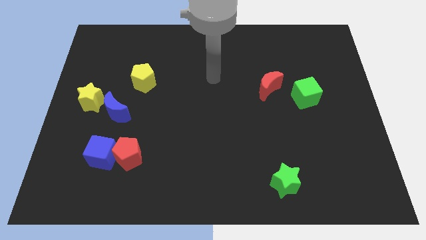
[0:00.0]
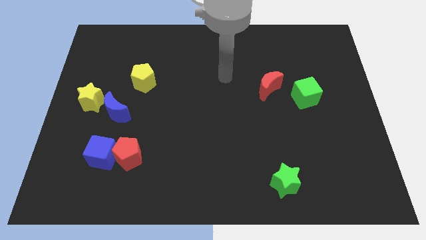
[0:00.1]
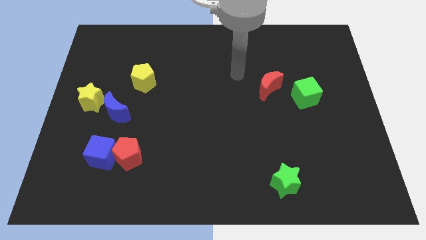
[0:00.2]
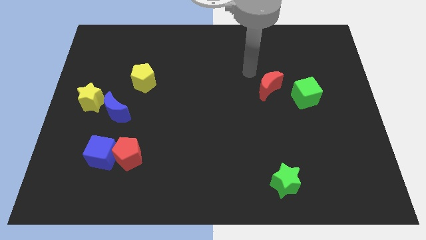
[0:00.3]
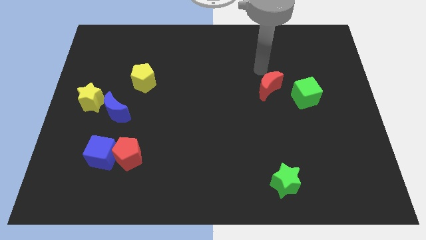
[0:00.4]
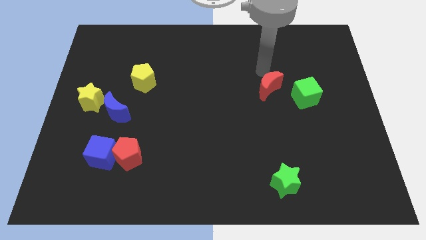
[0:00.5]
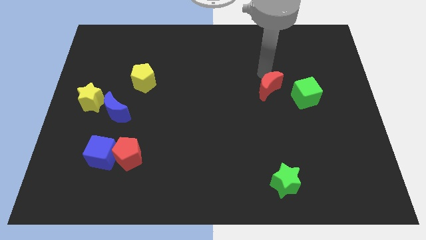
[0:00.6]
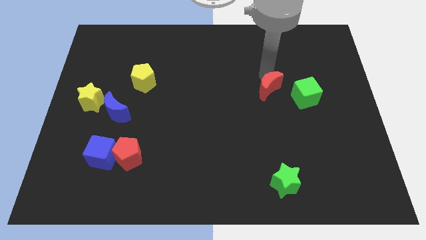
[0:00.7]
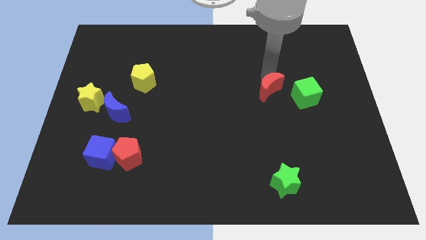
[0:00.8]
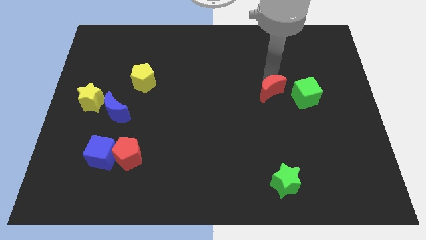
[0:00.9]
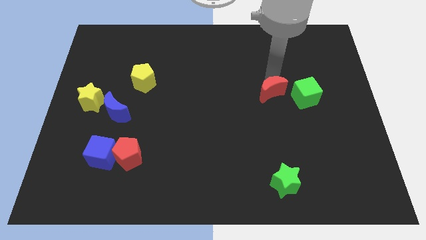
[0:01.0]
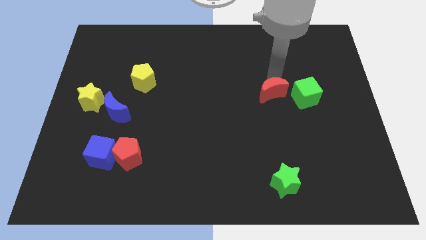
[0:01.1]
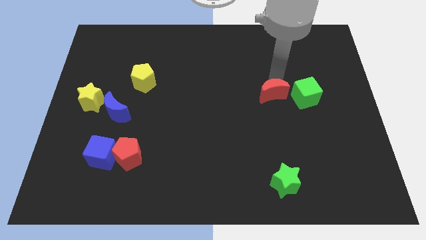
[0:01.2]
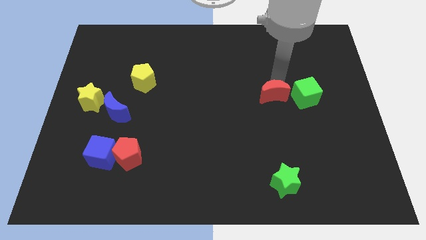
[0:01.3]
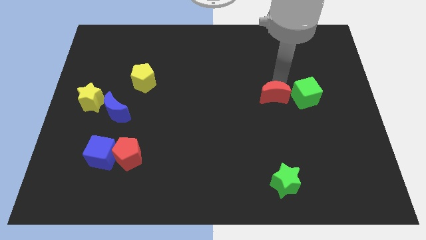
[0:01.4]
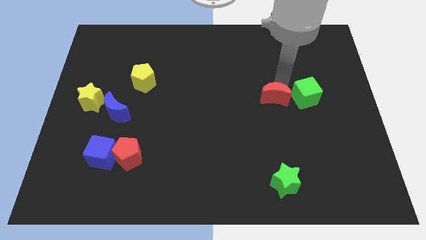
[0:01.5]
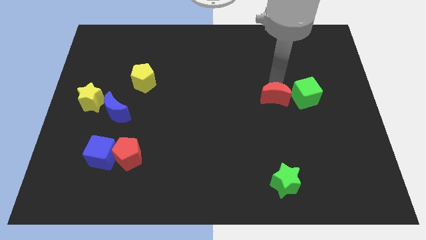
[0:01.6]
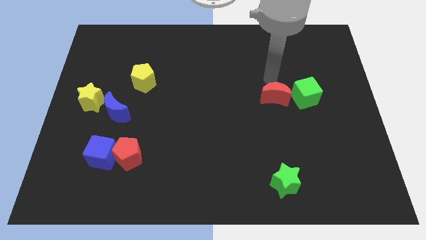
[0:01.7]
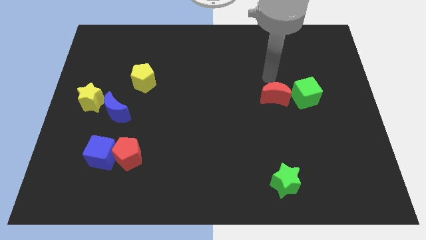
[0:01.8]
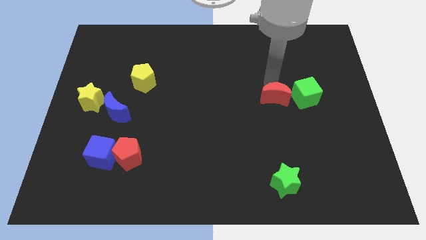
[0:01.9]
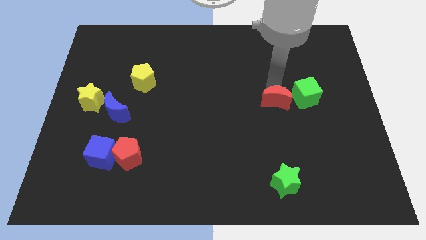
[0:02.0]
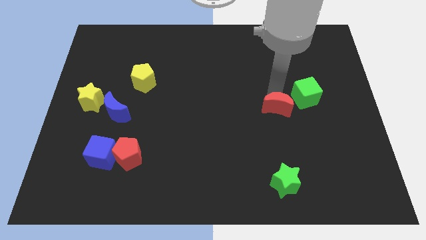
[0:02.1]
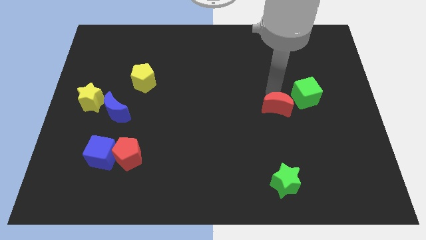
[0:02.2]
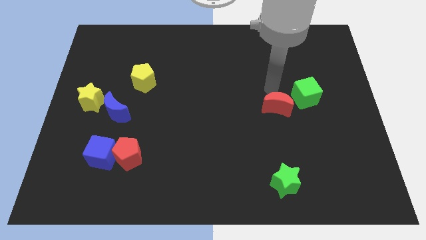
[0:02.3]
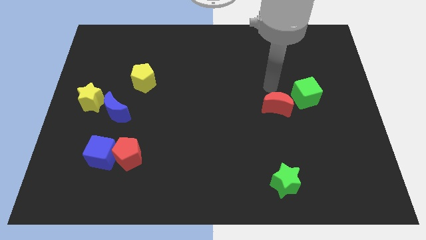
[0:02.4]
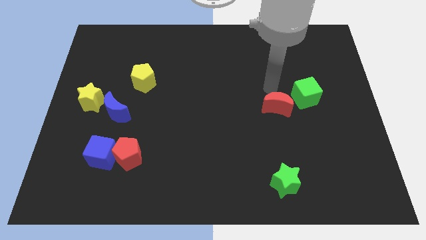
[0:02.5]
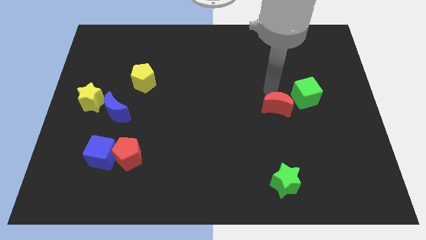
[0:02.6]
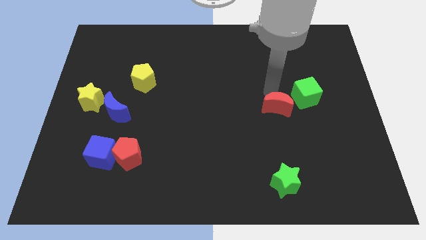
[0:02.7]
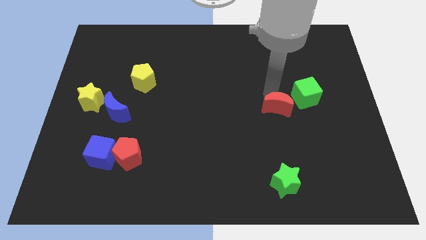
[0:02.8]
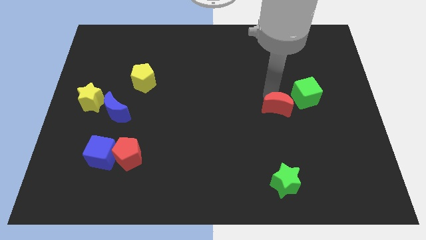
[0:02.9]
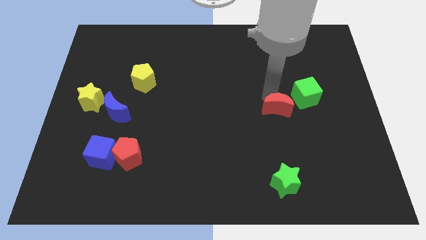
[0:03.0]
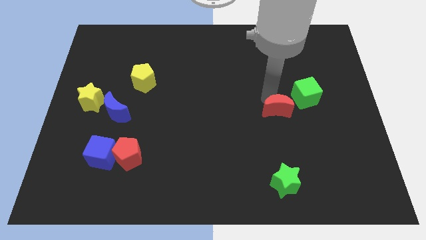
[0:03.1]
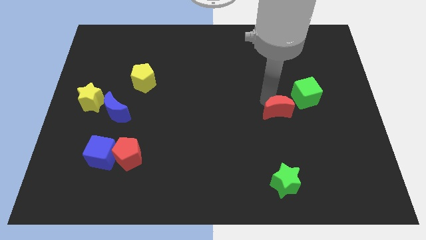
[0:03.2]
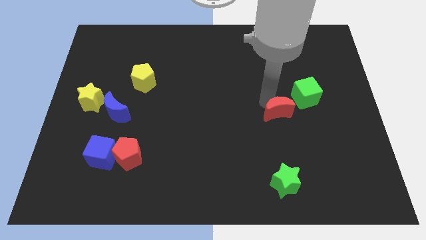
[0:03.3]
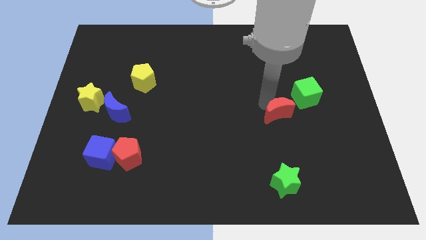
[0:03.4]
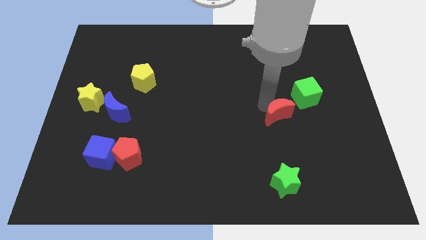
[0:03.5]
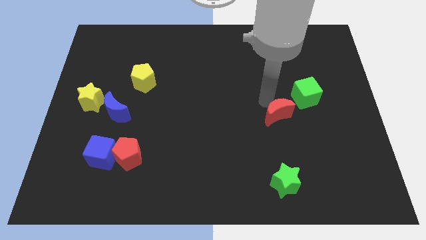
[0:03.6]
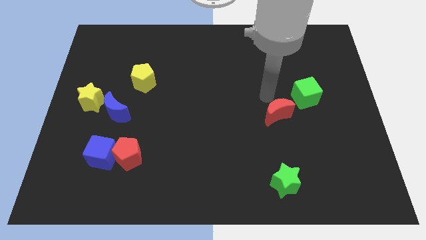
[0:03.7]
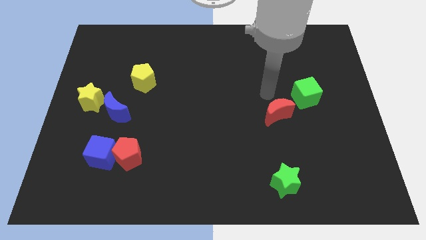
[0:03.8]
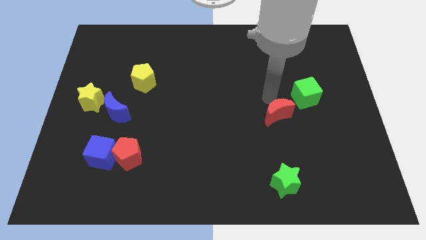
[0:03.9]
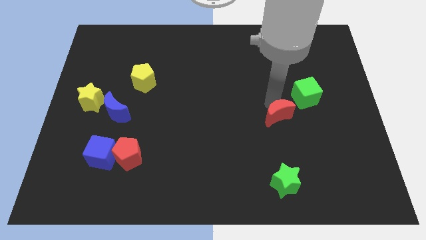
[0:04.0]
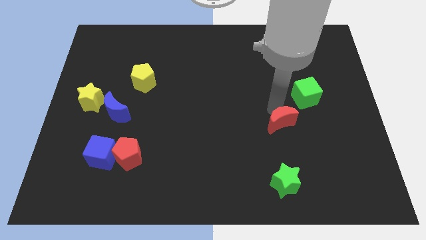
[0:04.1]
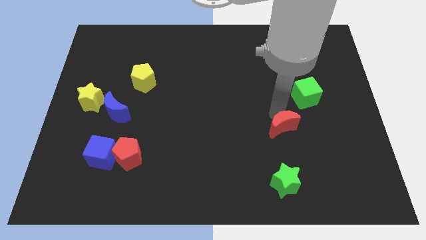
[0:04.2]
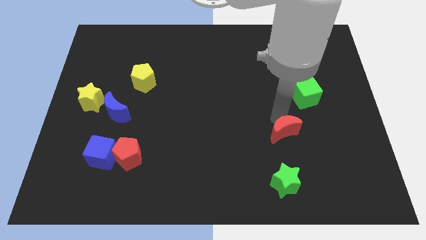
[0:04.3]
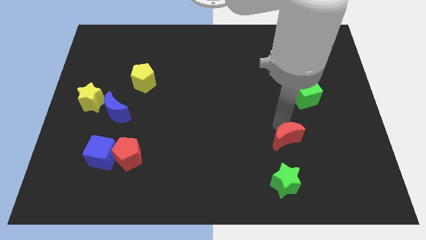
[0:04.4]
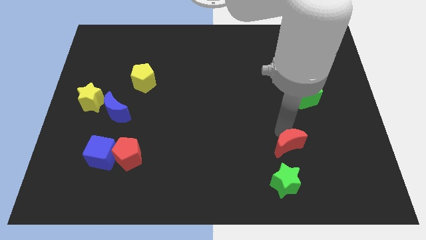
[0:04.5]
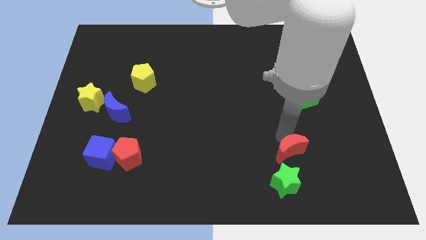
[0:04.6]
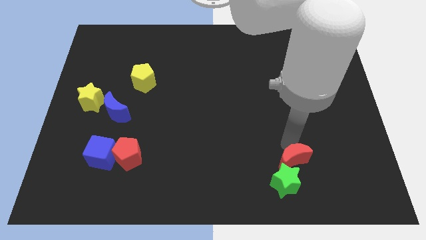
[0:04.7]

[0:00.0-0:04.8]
slide the red moon towards the green star

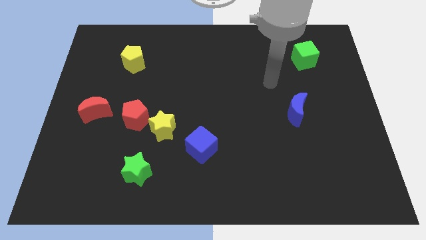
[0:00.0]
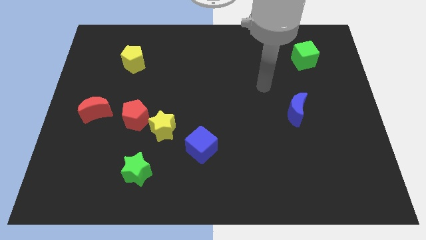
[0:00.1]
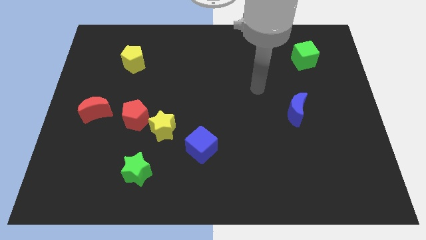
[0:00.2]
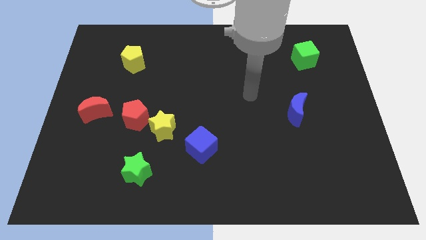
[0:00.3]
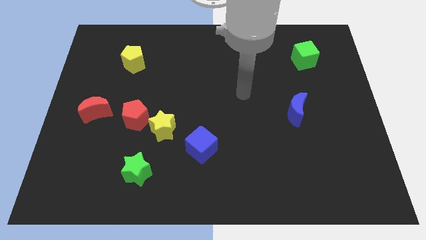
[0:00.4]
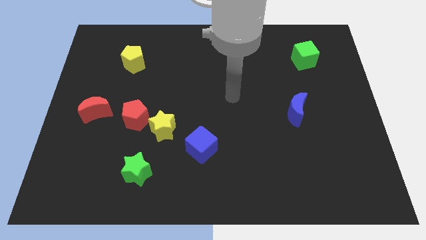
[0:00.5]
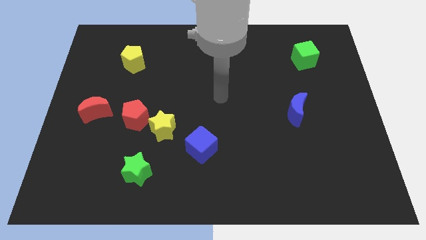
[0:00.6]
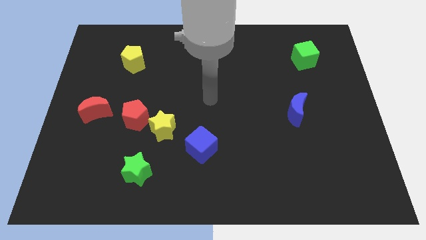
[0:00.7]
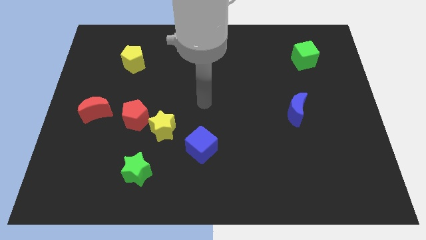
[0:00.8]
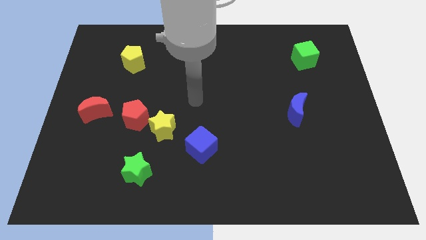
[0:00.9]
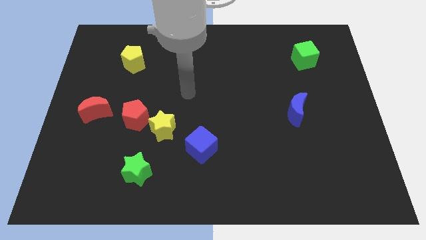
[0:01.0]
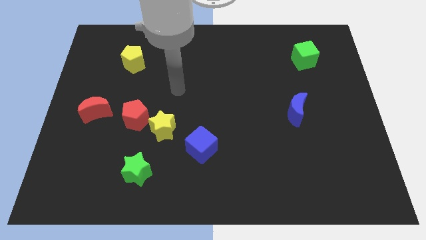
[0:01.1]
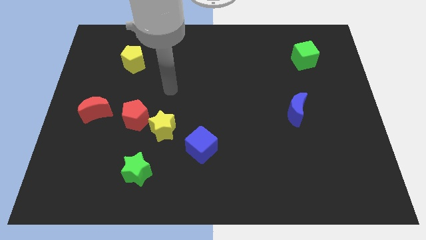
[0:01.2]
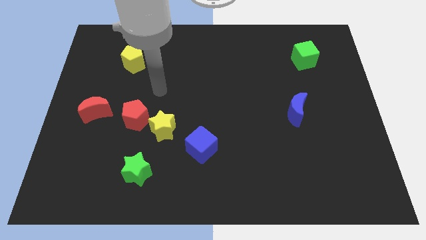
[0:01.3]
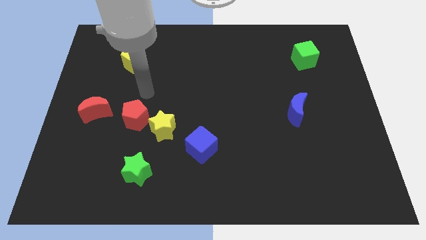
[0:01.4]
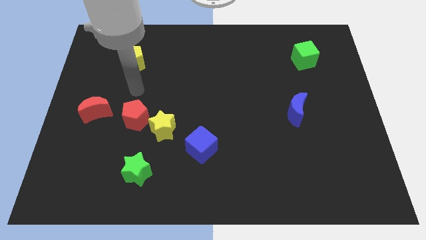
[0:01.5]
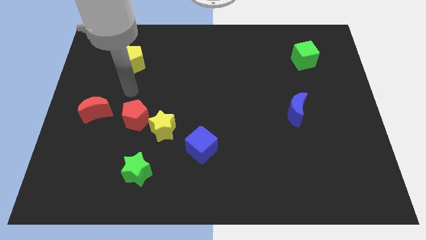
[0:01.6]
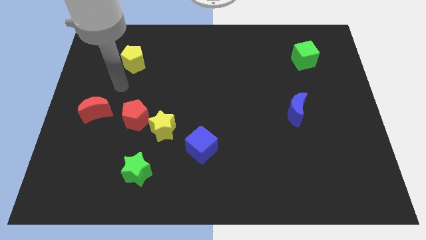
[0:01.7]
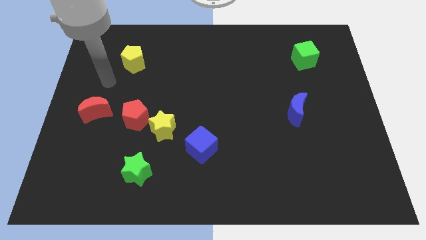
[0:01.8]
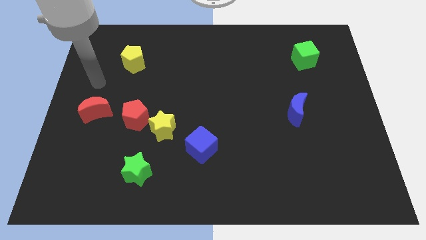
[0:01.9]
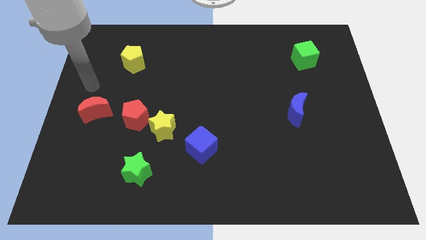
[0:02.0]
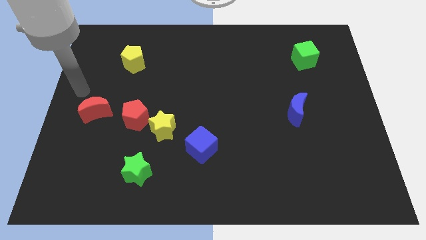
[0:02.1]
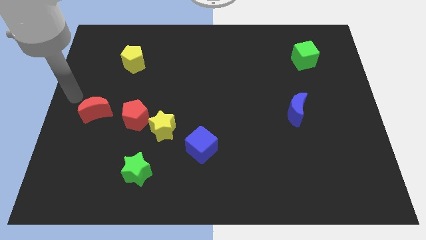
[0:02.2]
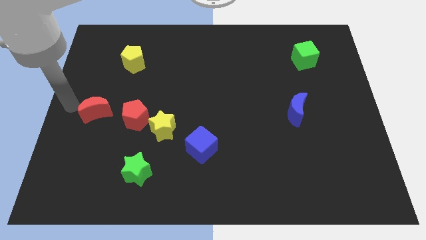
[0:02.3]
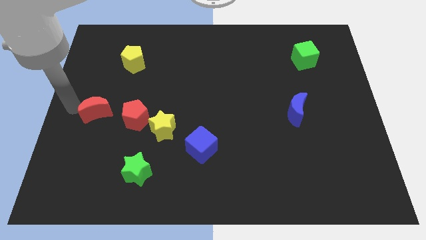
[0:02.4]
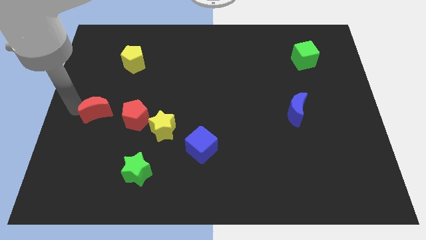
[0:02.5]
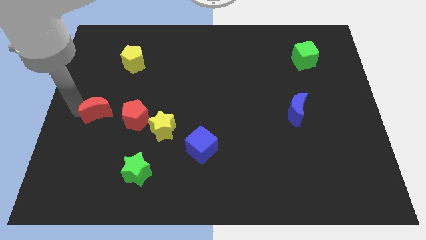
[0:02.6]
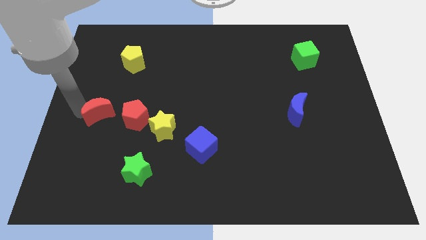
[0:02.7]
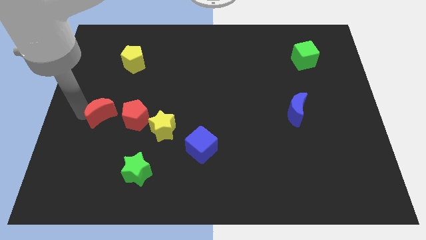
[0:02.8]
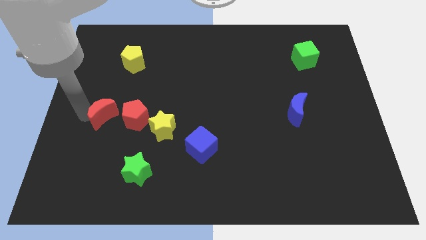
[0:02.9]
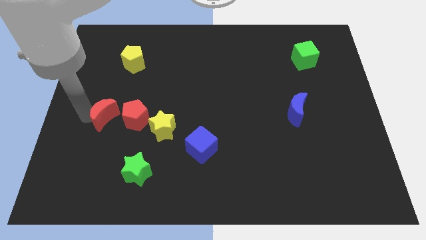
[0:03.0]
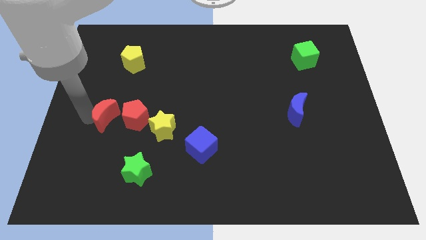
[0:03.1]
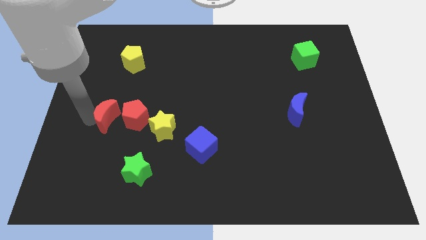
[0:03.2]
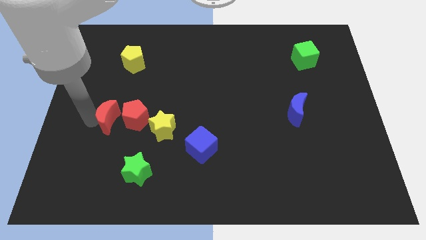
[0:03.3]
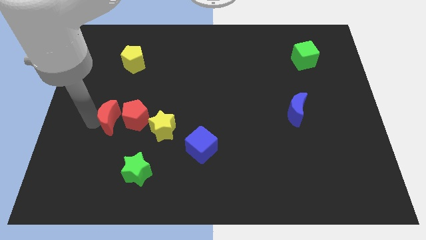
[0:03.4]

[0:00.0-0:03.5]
push the red moon to the red pentagon
